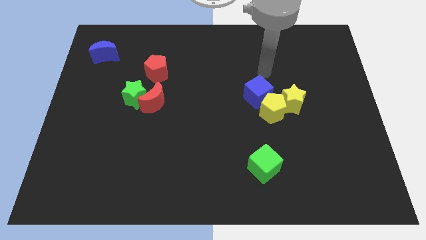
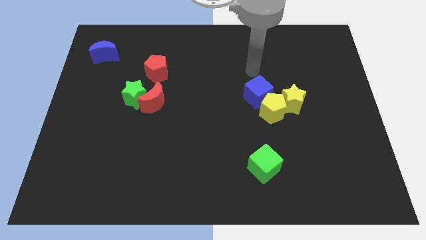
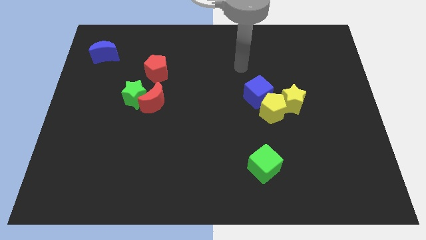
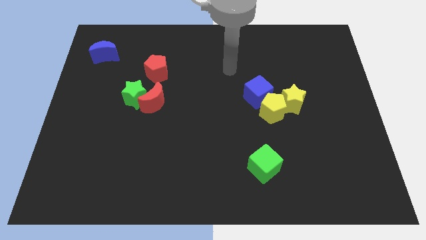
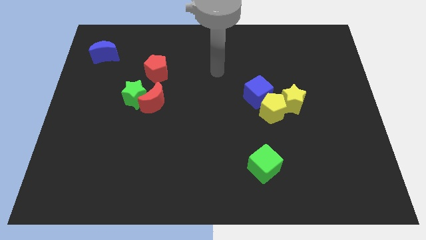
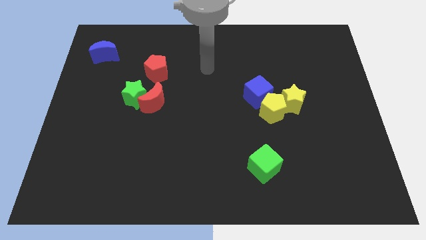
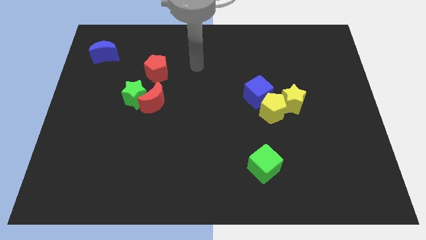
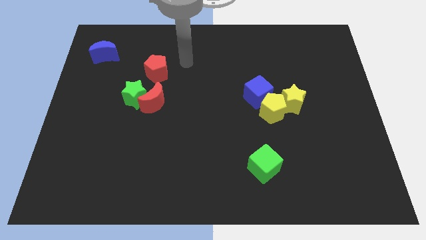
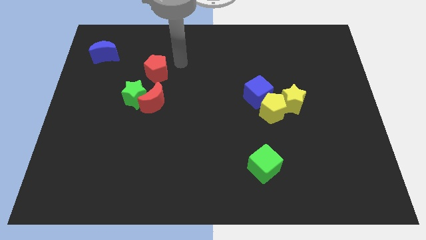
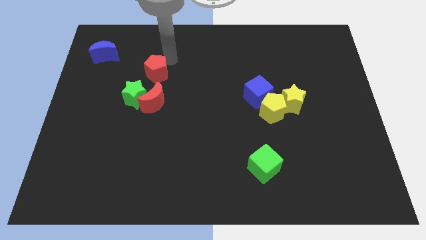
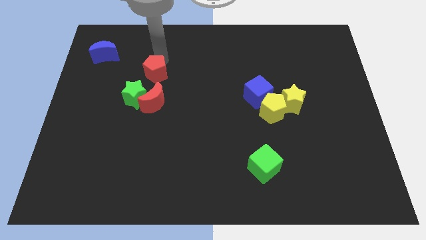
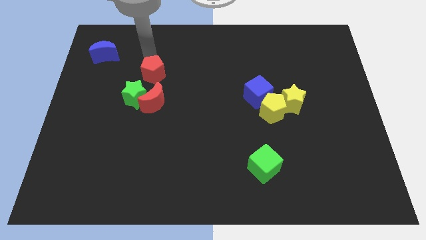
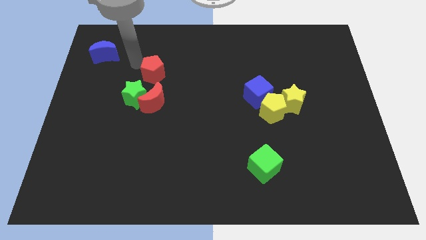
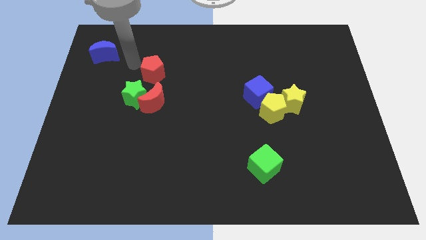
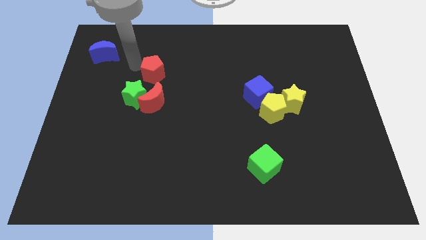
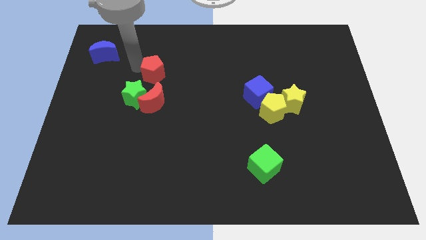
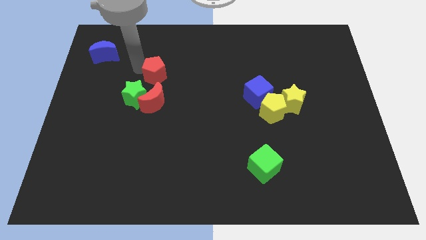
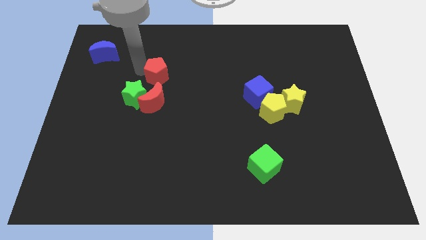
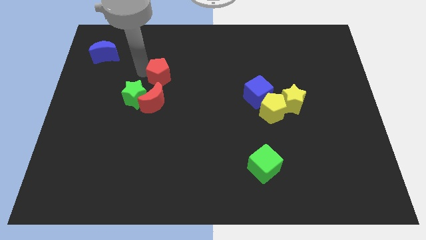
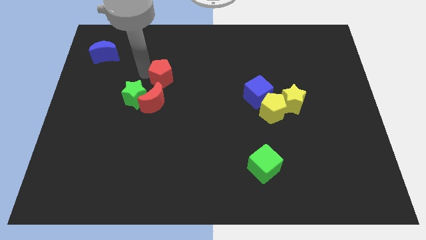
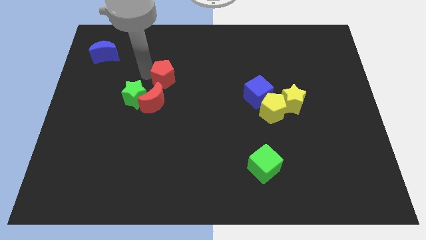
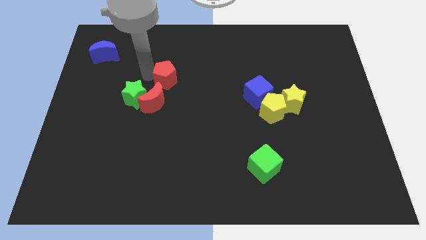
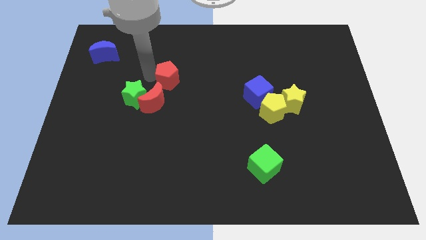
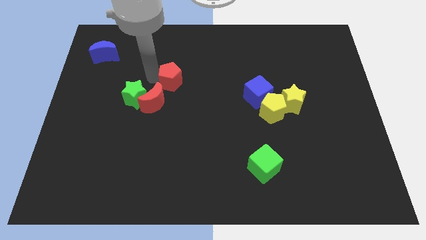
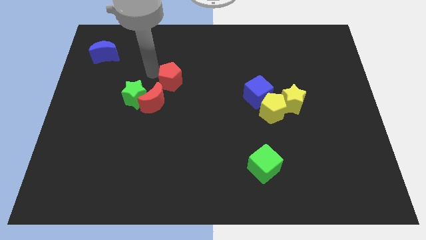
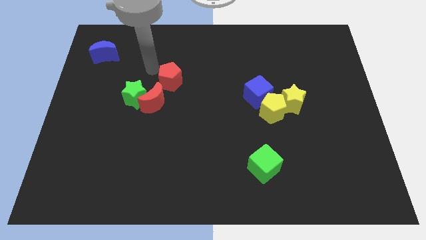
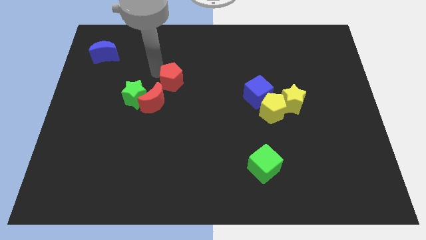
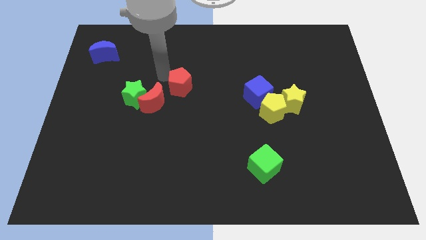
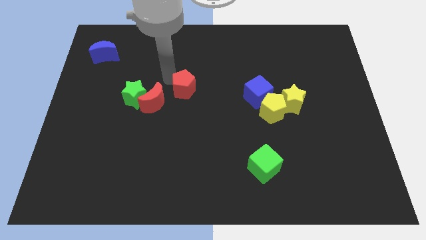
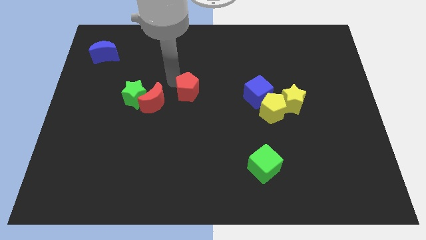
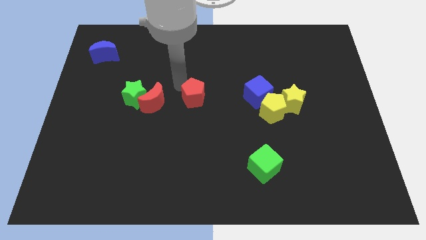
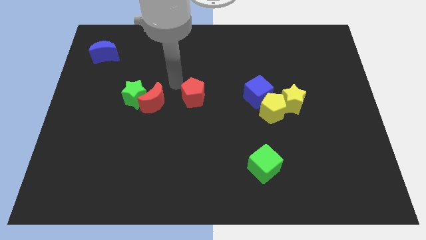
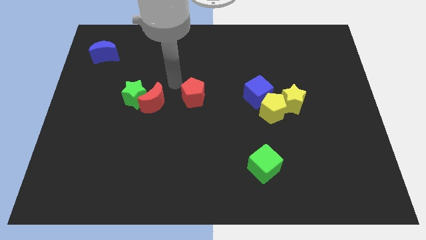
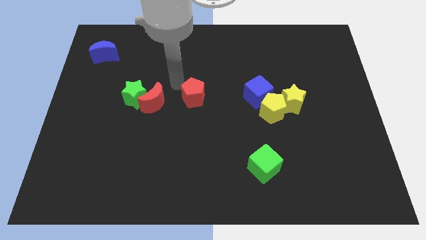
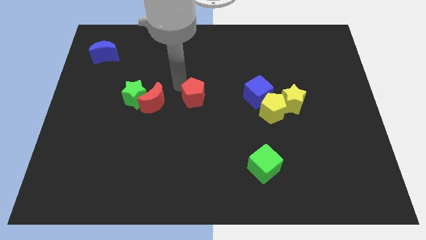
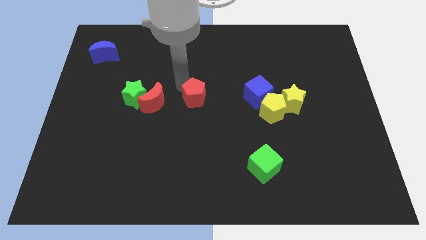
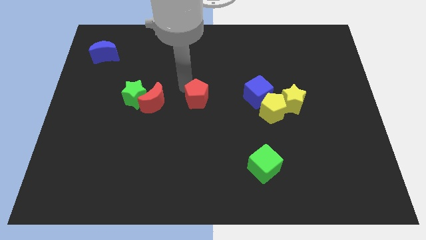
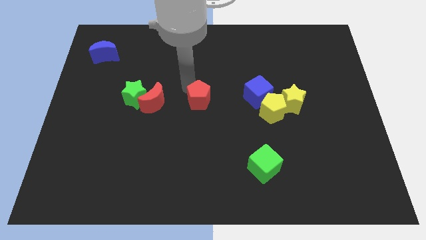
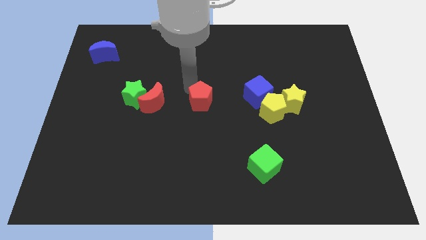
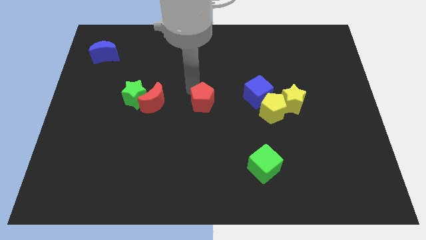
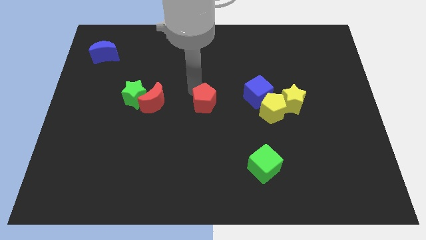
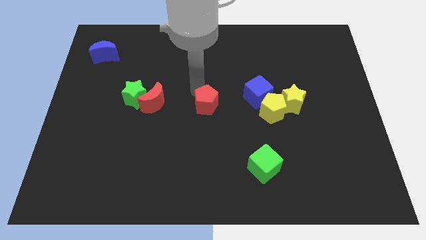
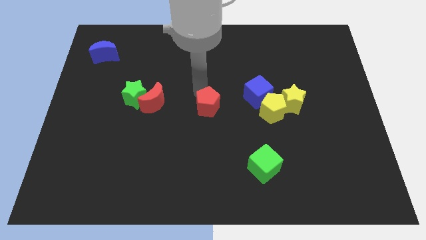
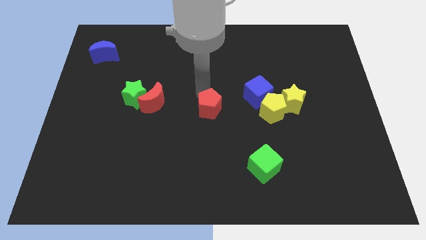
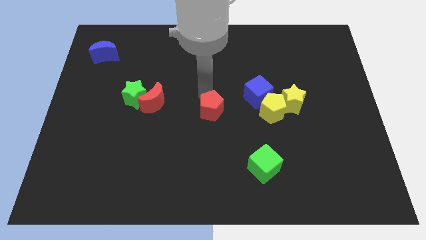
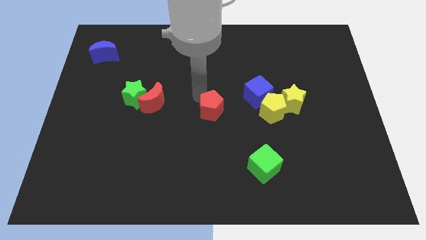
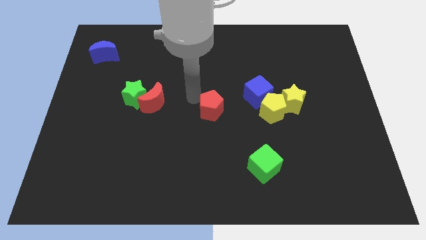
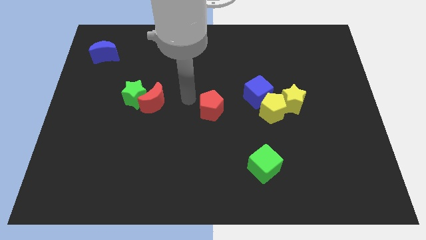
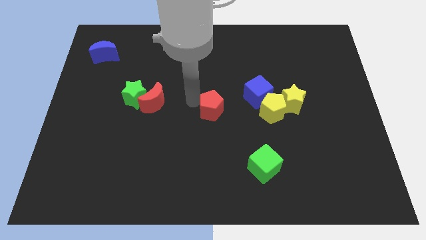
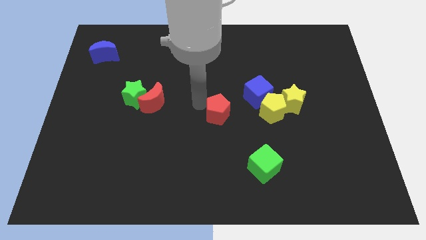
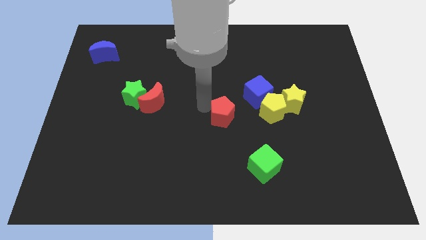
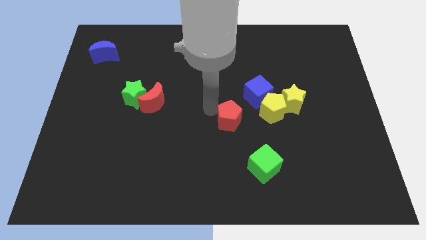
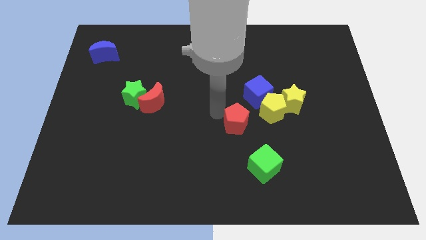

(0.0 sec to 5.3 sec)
move the red pentagon diagonally down and to the left of the yellow pentagon

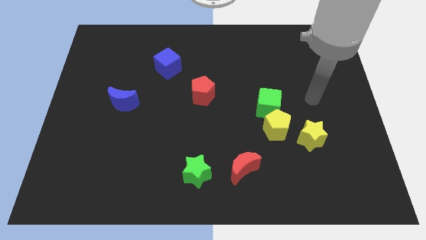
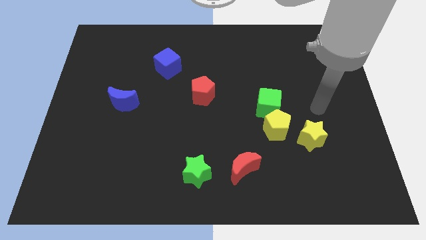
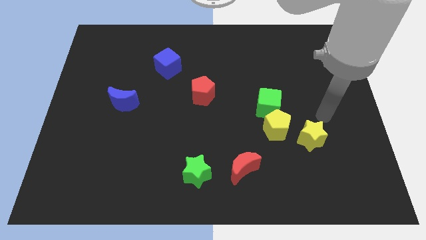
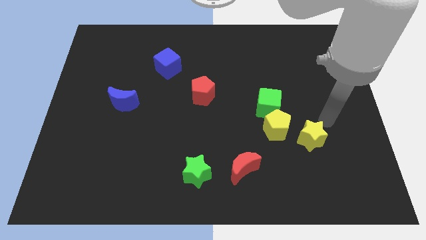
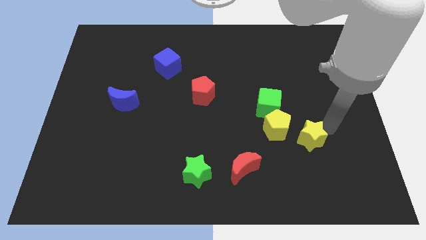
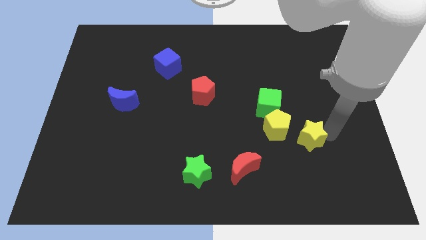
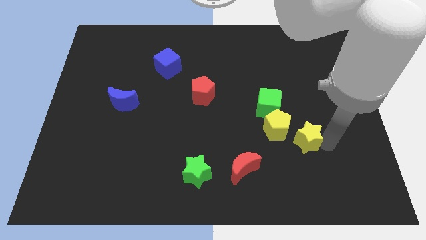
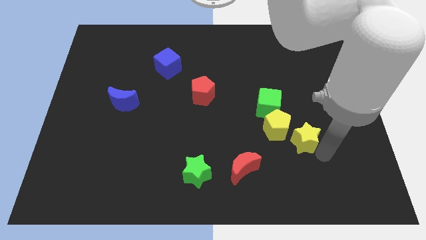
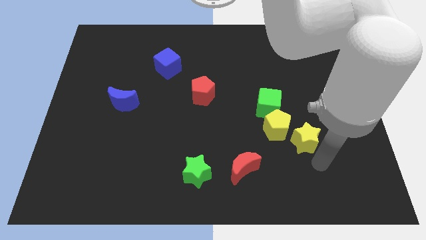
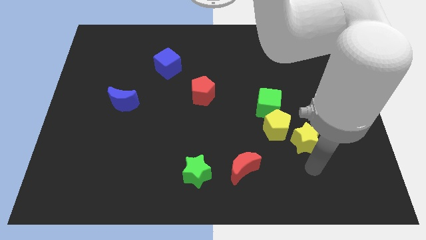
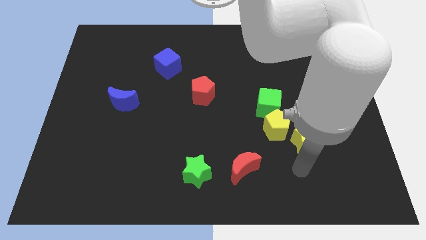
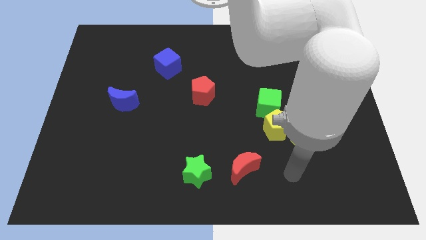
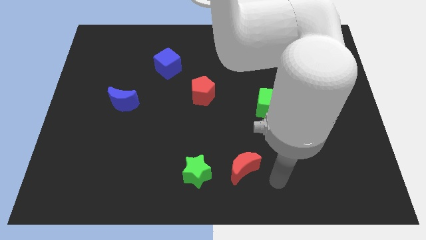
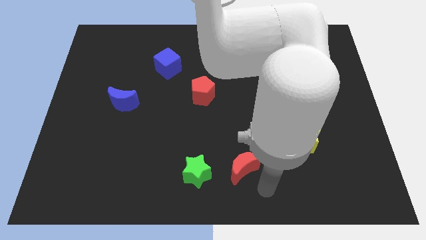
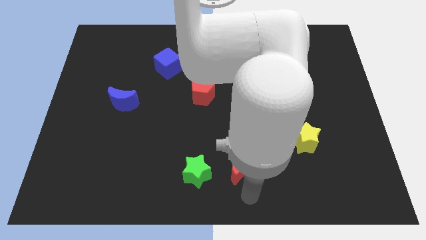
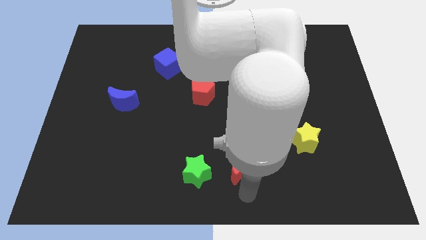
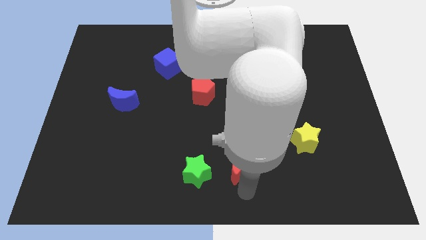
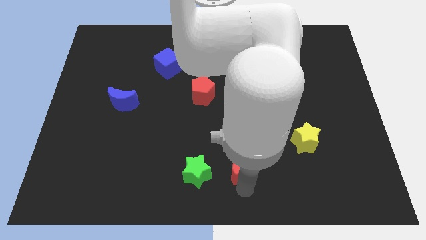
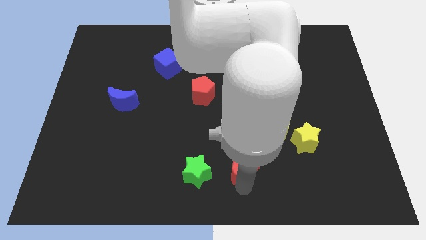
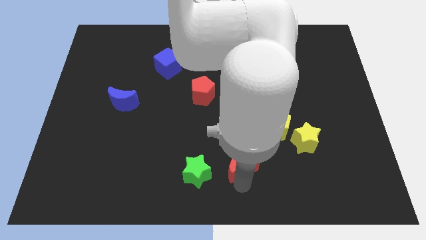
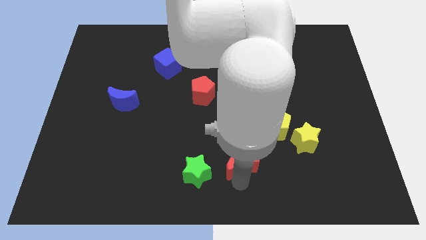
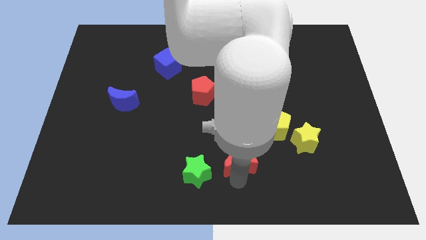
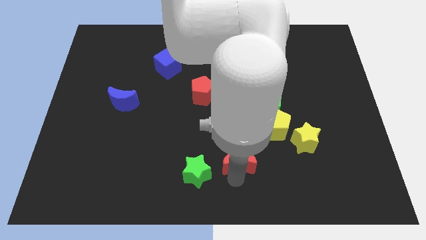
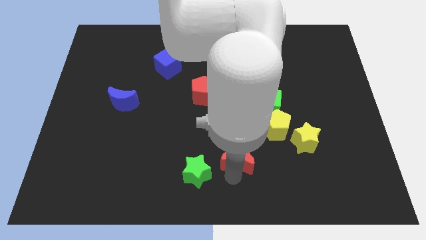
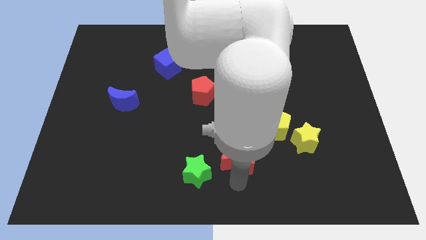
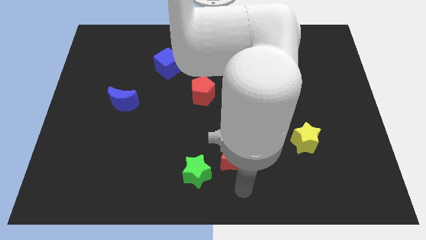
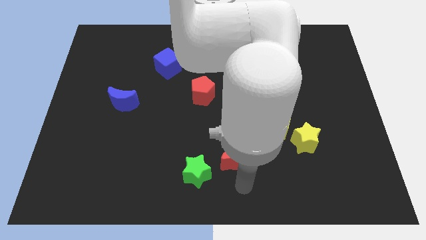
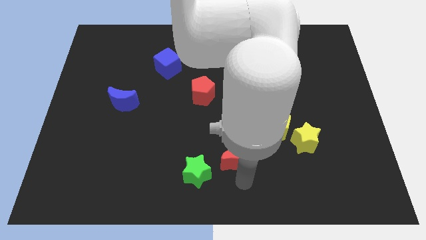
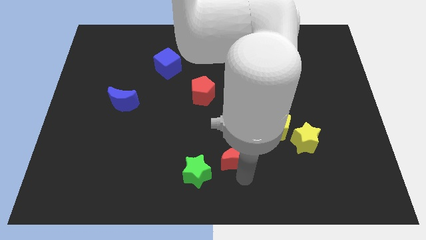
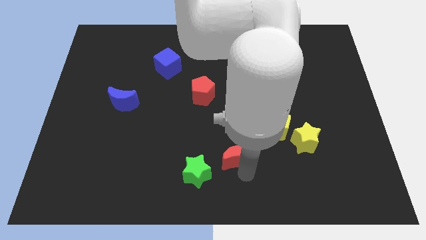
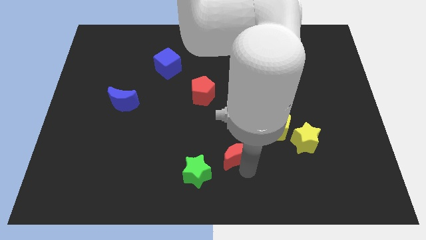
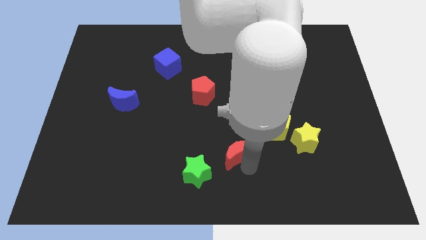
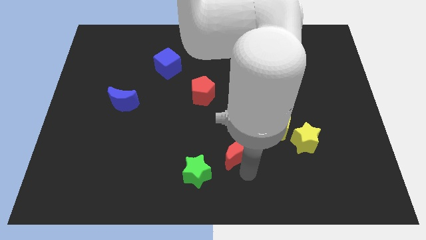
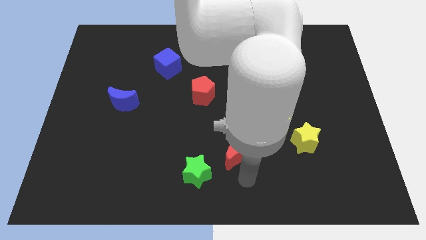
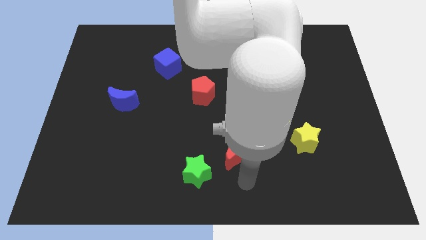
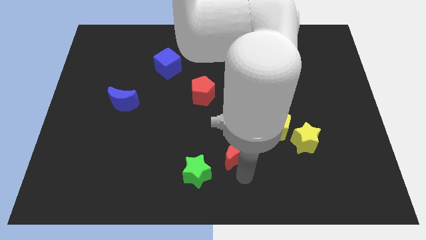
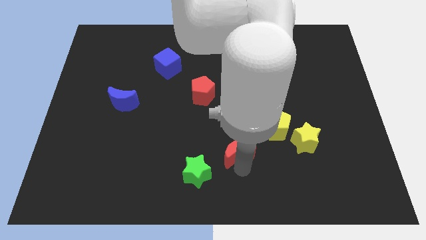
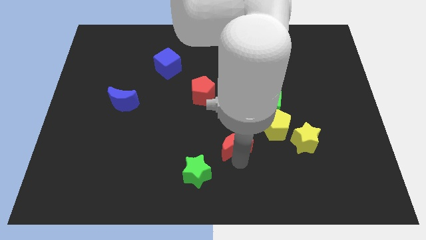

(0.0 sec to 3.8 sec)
move the red moon to the left of the yellow pentagon
